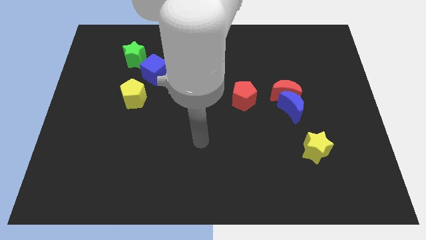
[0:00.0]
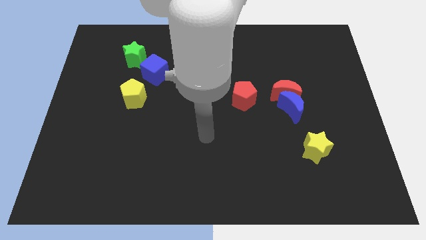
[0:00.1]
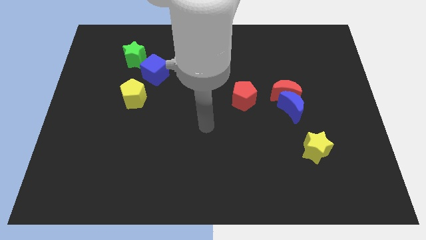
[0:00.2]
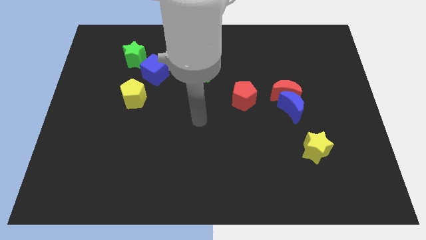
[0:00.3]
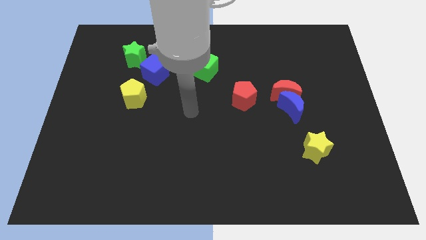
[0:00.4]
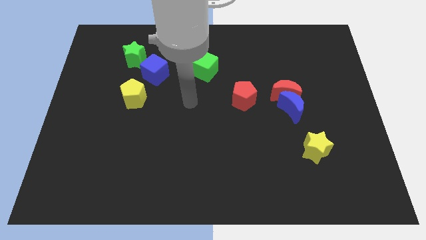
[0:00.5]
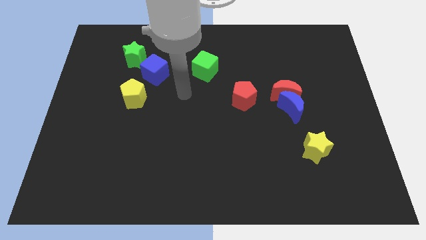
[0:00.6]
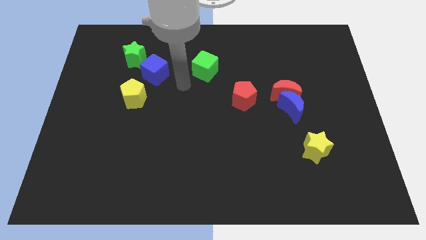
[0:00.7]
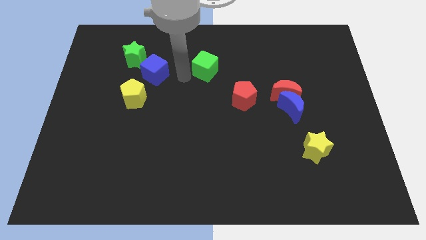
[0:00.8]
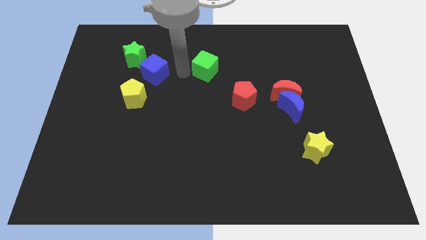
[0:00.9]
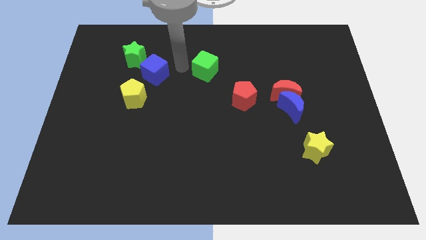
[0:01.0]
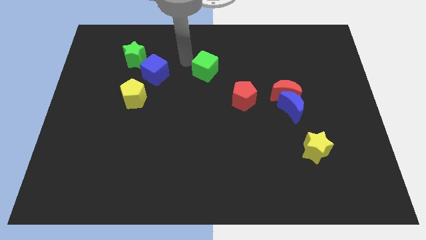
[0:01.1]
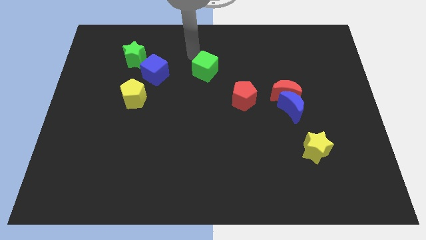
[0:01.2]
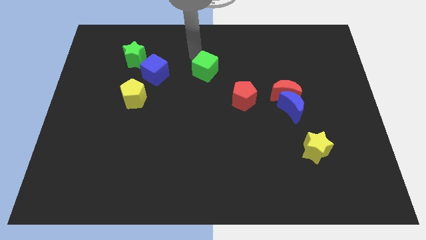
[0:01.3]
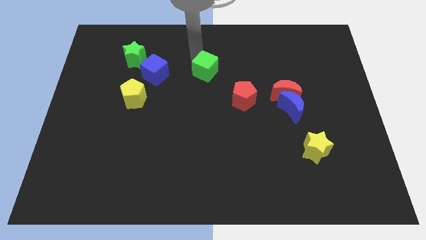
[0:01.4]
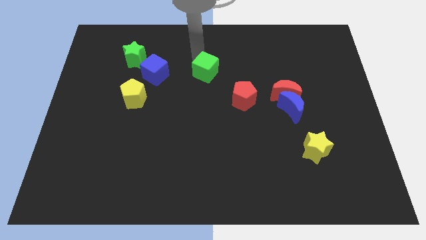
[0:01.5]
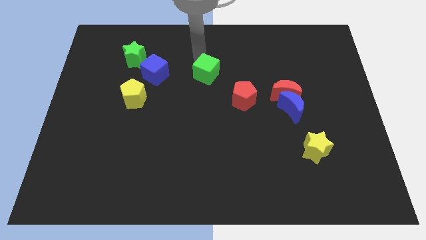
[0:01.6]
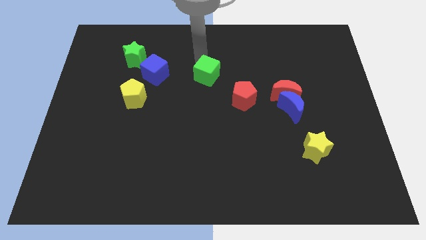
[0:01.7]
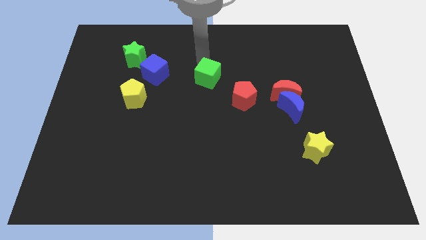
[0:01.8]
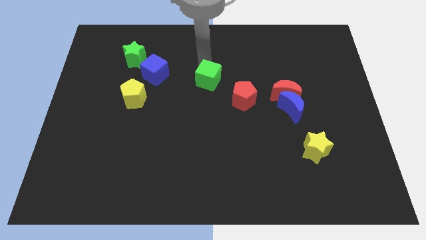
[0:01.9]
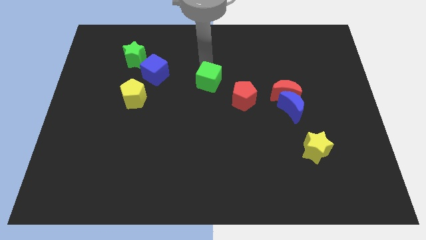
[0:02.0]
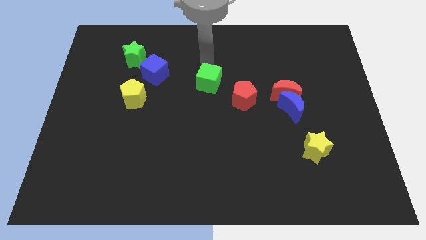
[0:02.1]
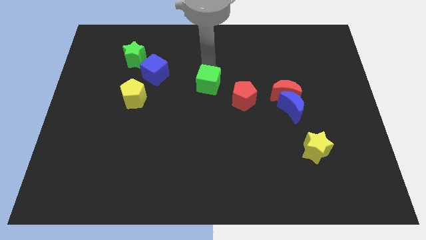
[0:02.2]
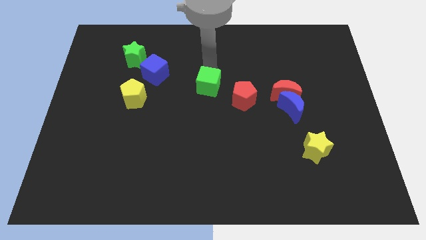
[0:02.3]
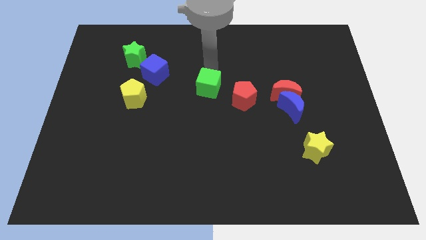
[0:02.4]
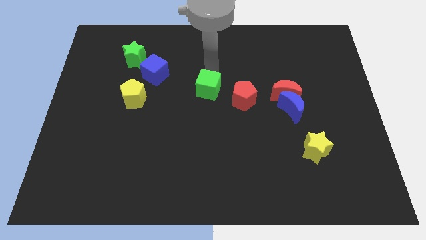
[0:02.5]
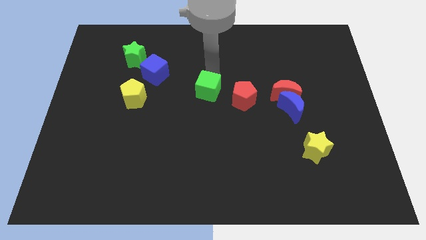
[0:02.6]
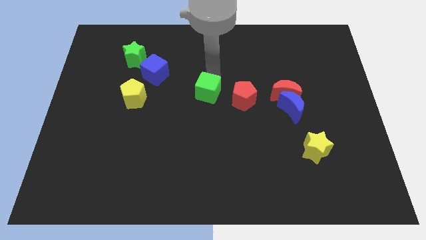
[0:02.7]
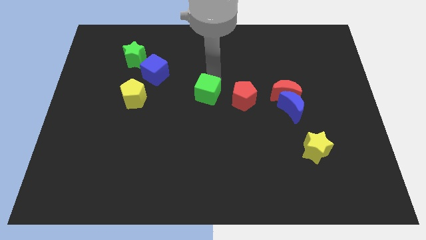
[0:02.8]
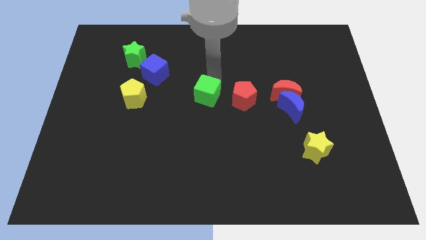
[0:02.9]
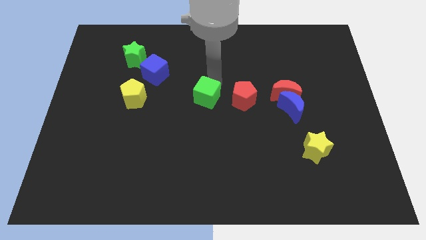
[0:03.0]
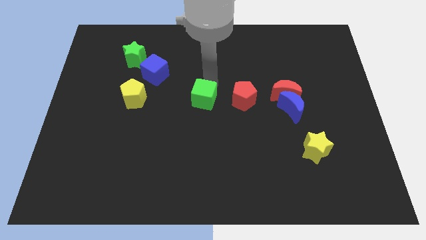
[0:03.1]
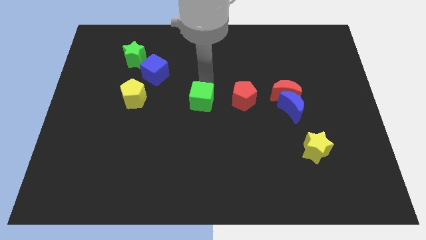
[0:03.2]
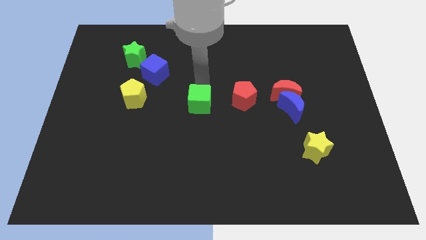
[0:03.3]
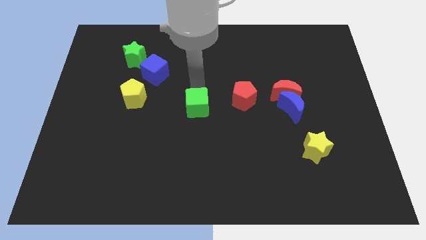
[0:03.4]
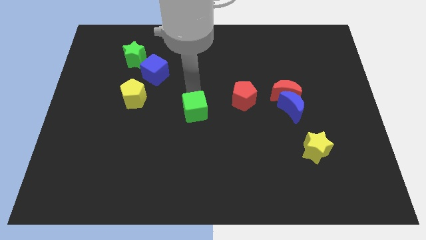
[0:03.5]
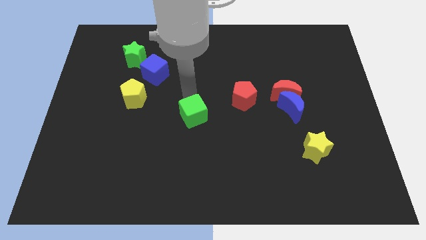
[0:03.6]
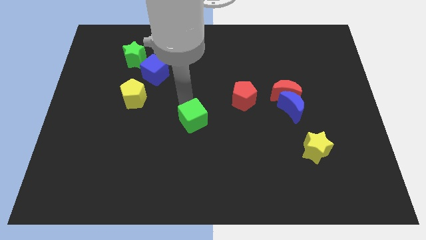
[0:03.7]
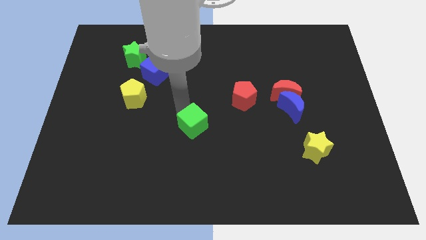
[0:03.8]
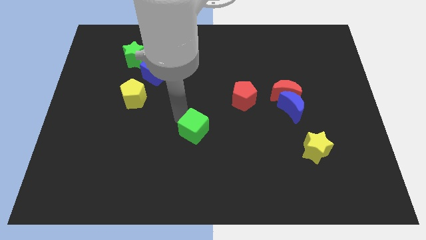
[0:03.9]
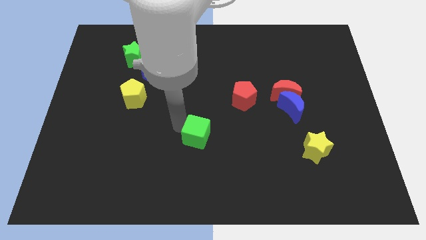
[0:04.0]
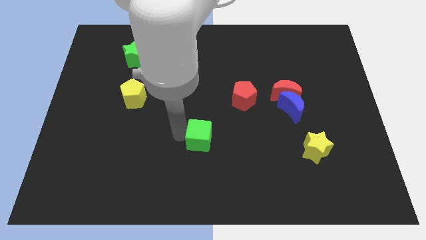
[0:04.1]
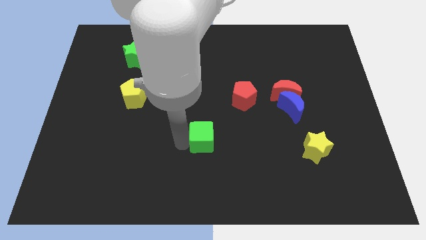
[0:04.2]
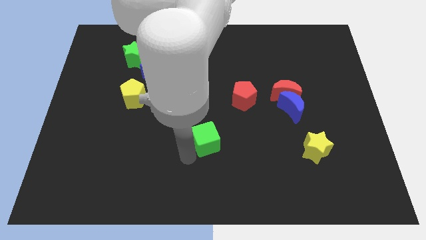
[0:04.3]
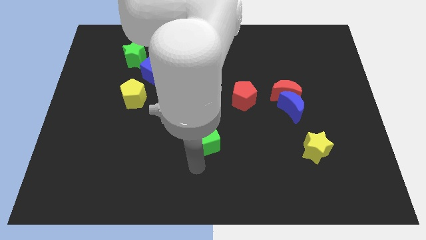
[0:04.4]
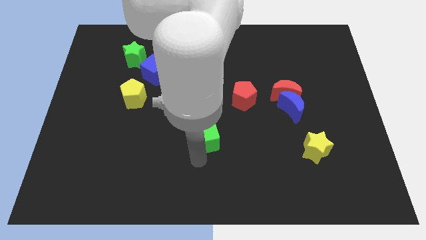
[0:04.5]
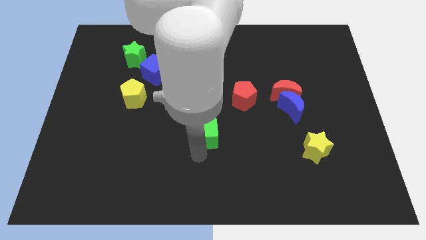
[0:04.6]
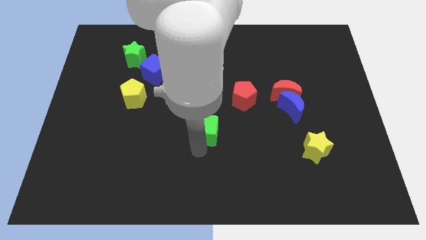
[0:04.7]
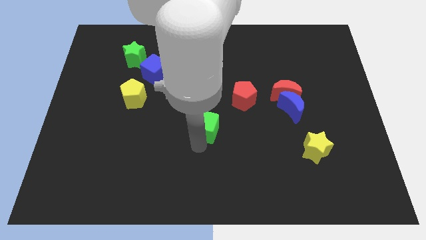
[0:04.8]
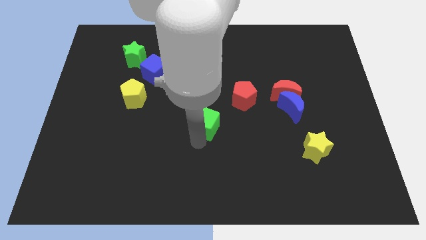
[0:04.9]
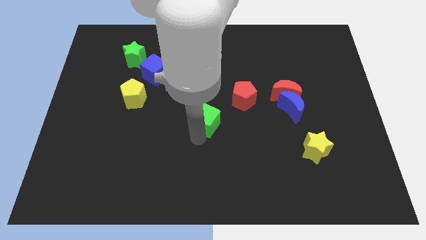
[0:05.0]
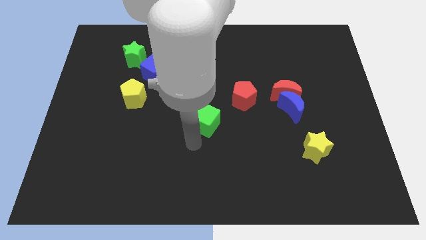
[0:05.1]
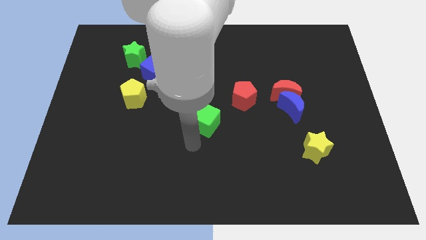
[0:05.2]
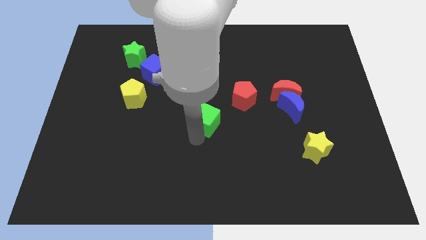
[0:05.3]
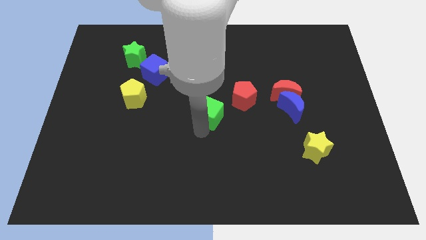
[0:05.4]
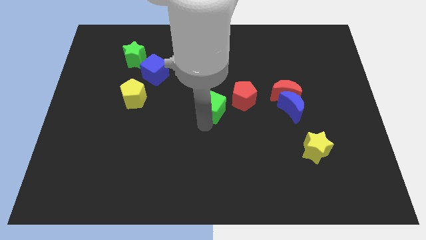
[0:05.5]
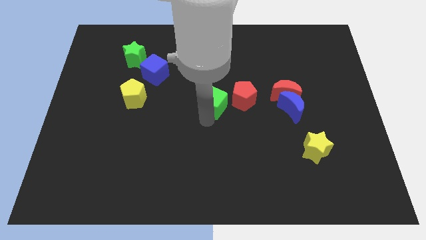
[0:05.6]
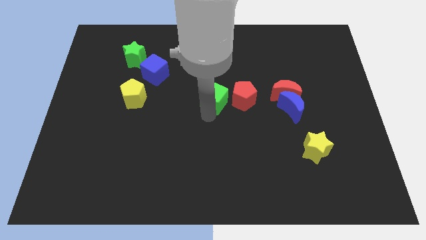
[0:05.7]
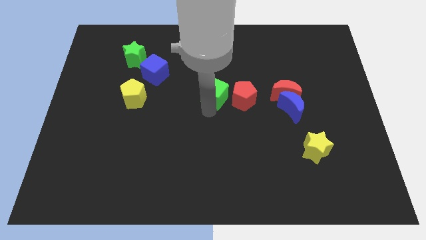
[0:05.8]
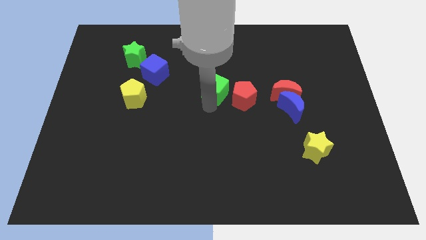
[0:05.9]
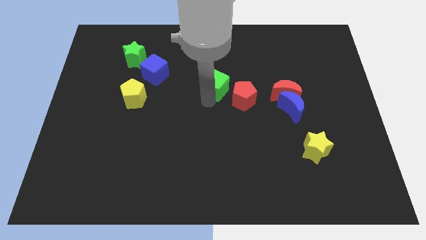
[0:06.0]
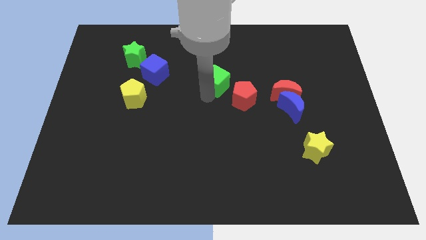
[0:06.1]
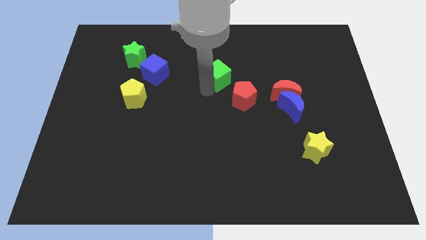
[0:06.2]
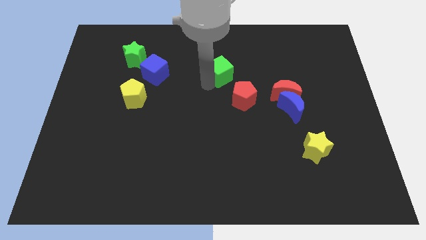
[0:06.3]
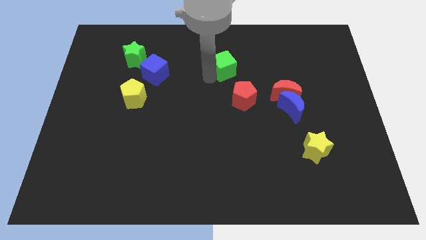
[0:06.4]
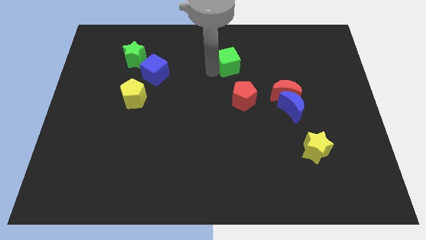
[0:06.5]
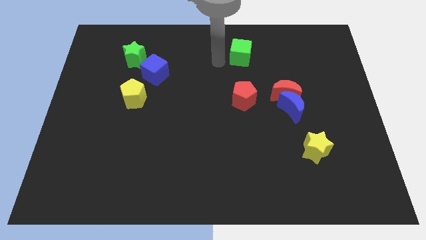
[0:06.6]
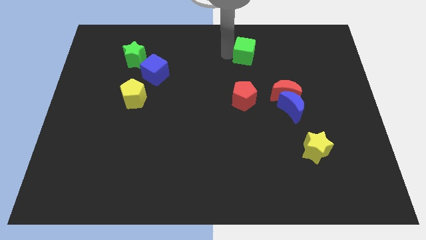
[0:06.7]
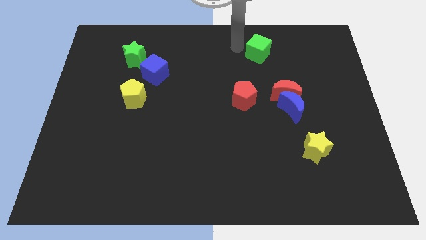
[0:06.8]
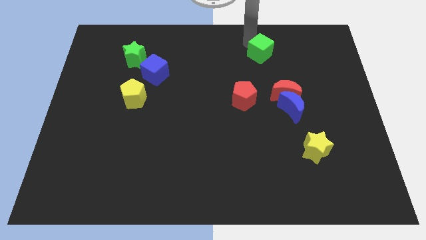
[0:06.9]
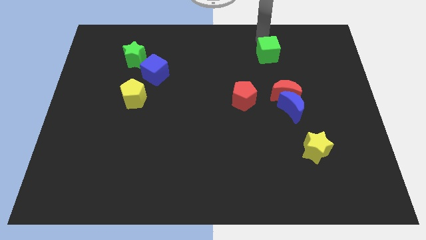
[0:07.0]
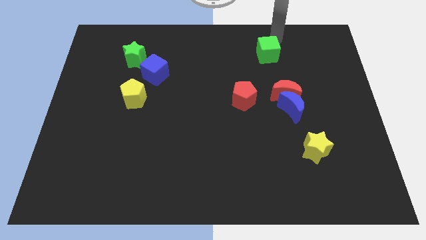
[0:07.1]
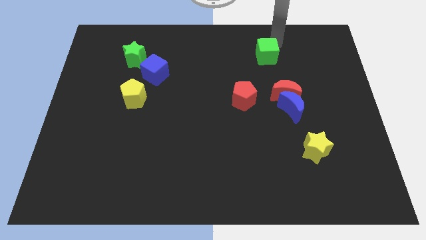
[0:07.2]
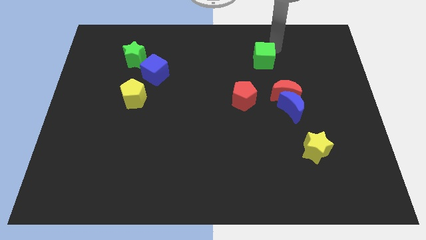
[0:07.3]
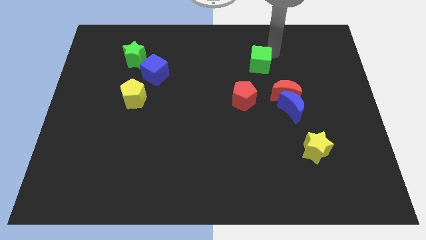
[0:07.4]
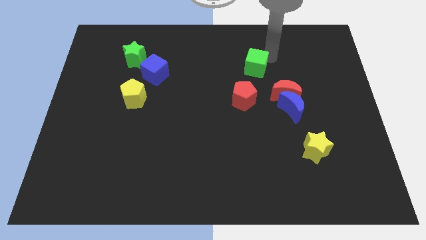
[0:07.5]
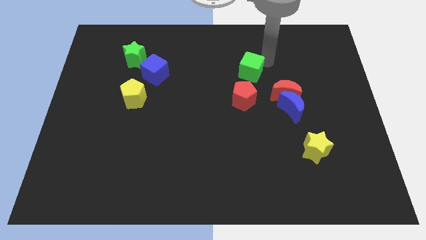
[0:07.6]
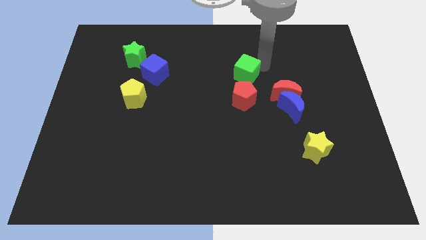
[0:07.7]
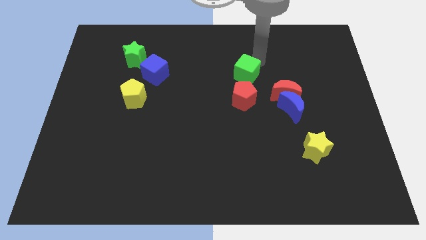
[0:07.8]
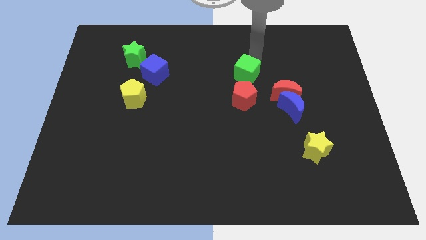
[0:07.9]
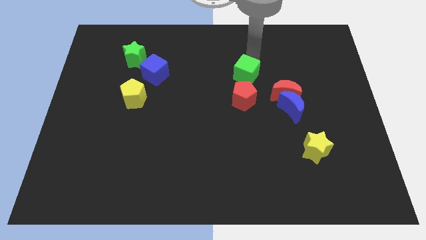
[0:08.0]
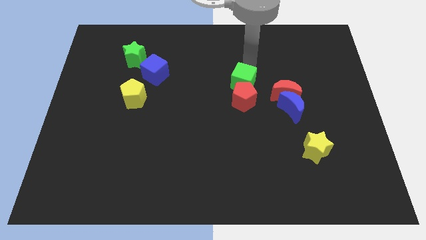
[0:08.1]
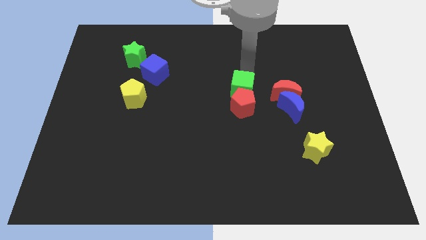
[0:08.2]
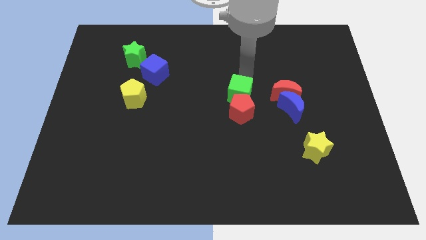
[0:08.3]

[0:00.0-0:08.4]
put the green cube to the left side of the blue moon

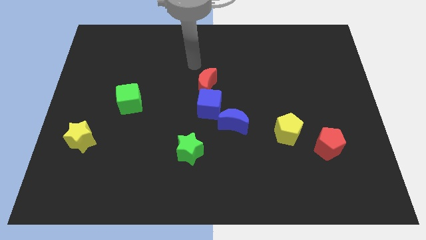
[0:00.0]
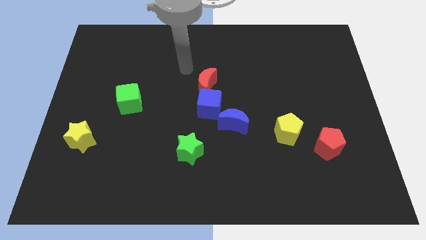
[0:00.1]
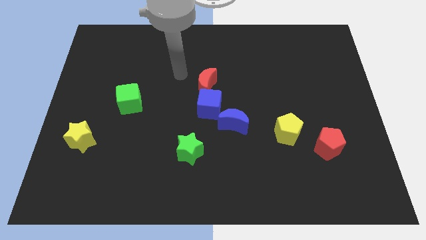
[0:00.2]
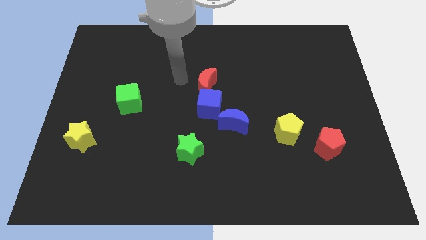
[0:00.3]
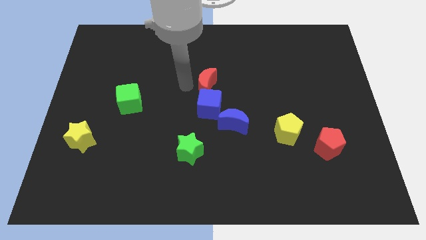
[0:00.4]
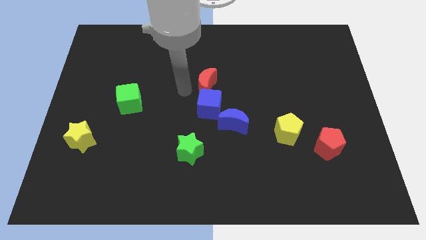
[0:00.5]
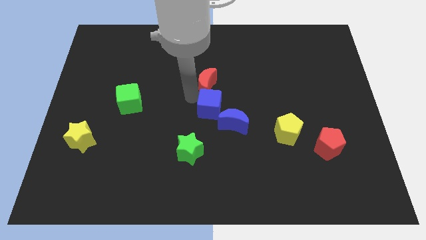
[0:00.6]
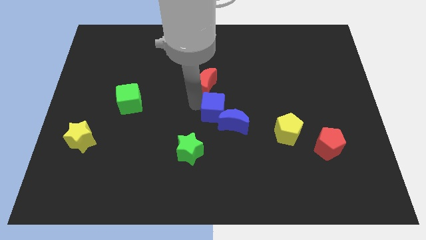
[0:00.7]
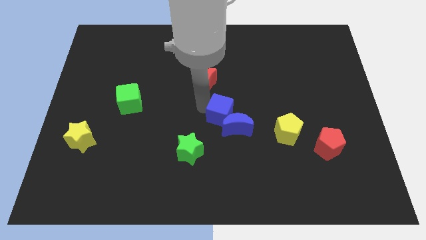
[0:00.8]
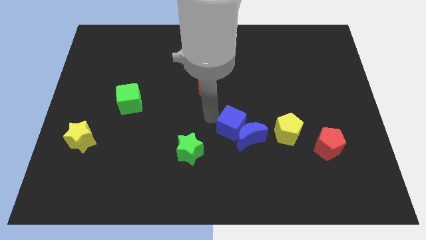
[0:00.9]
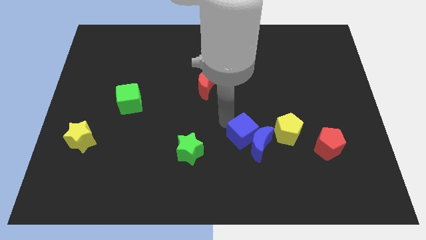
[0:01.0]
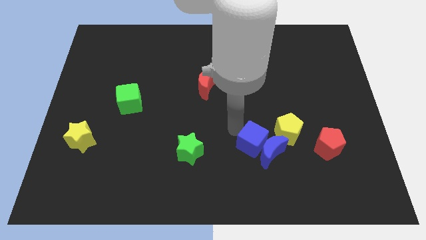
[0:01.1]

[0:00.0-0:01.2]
push the blue moon to the bottom side of the yellow pentagon
